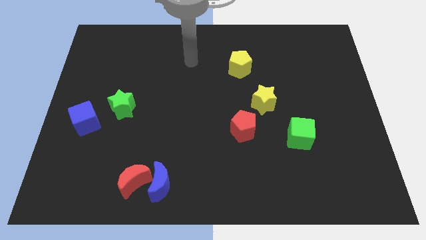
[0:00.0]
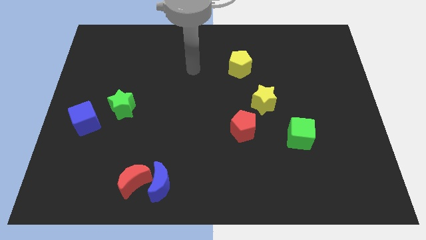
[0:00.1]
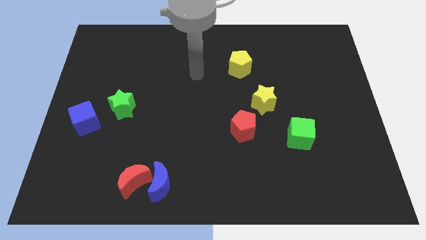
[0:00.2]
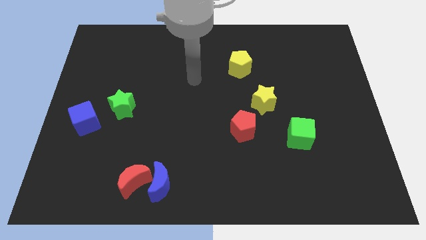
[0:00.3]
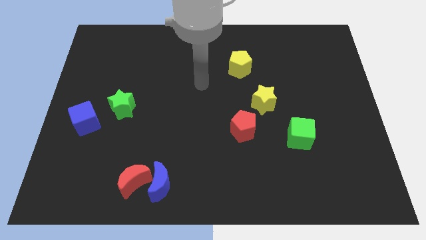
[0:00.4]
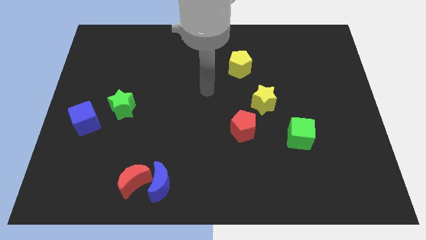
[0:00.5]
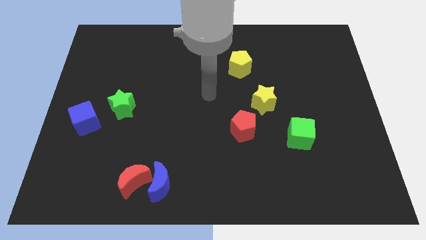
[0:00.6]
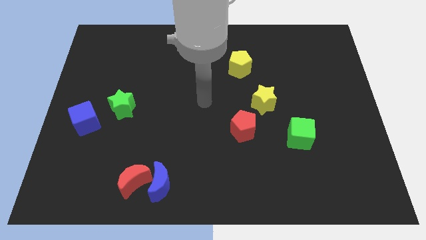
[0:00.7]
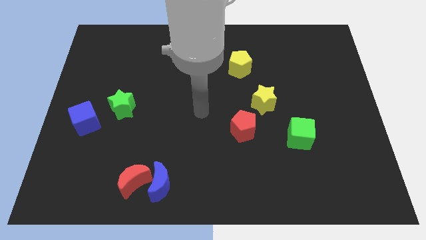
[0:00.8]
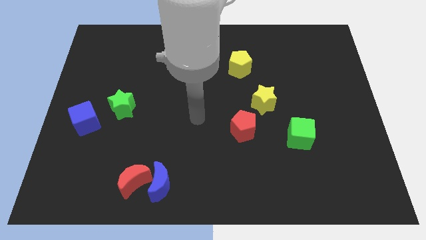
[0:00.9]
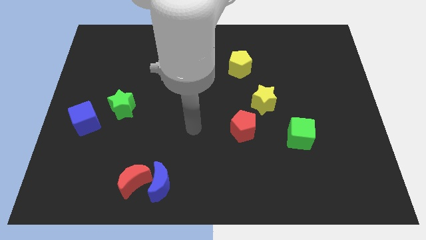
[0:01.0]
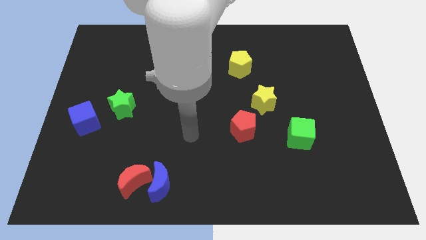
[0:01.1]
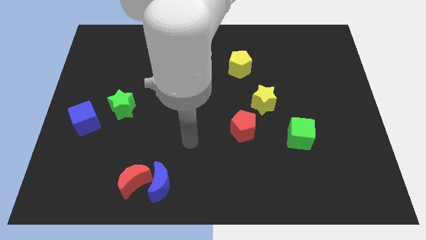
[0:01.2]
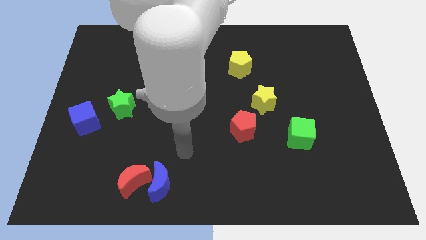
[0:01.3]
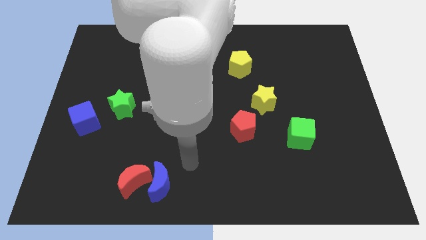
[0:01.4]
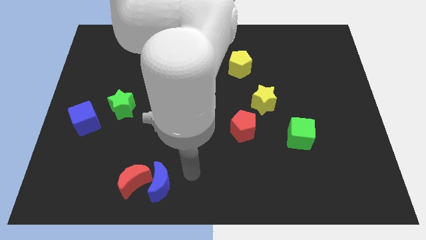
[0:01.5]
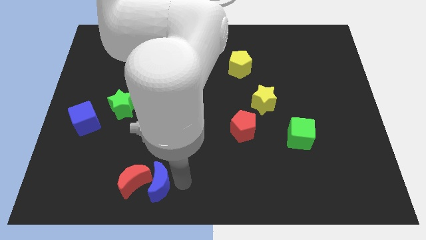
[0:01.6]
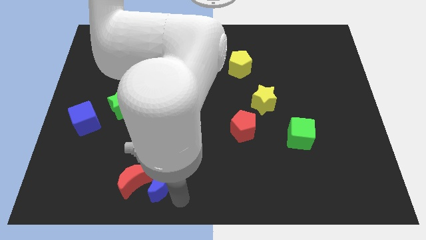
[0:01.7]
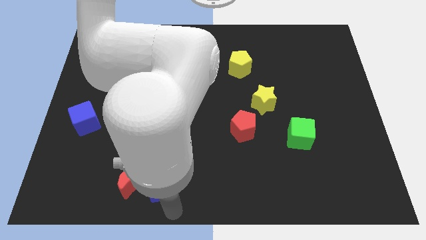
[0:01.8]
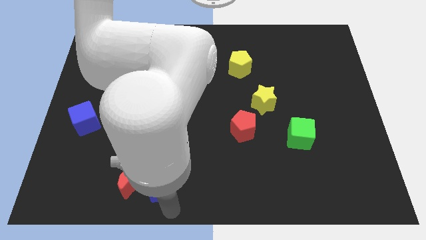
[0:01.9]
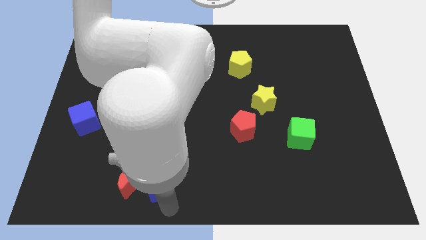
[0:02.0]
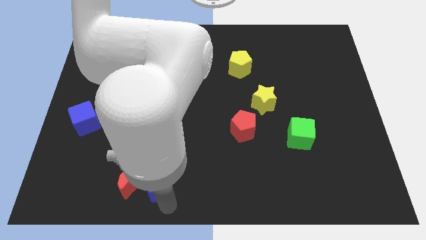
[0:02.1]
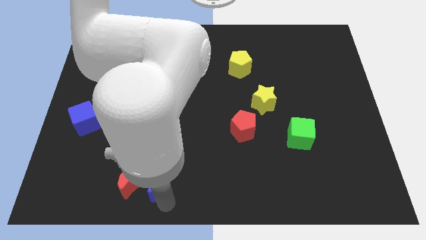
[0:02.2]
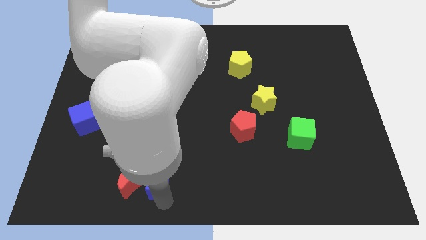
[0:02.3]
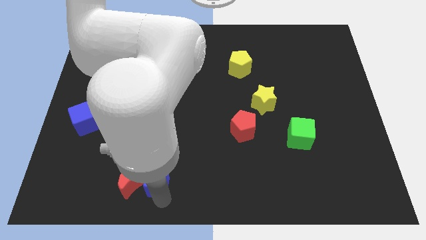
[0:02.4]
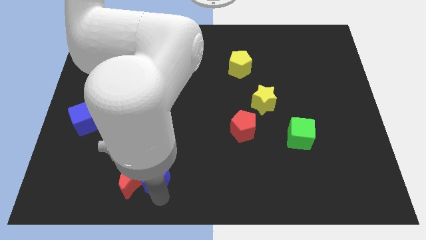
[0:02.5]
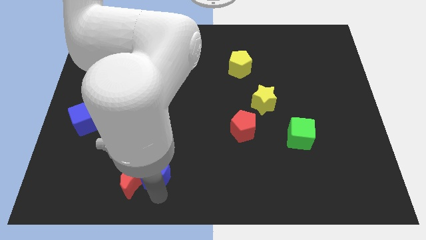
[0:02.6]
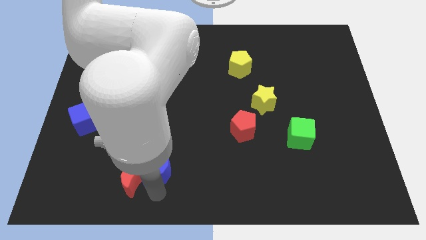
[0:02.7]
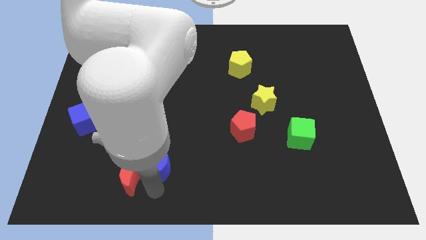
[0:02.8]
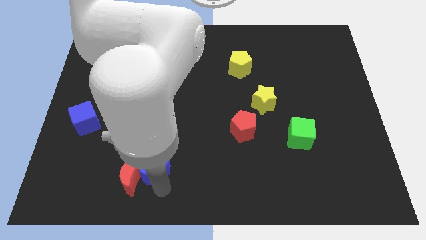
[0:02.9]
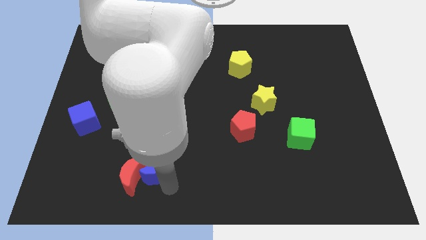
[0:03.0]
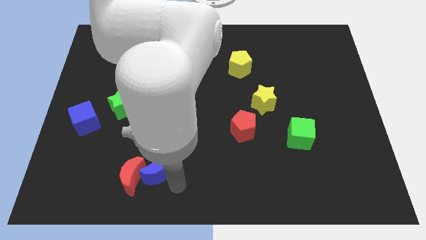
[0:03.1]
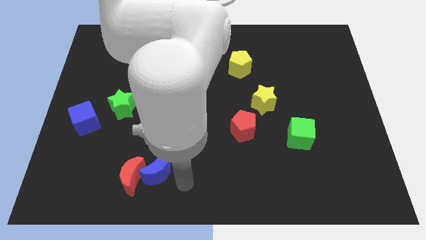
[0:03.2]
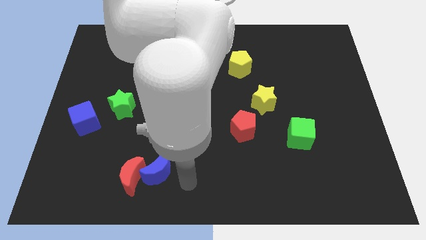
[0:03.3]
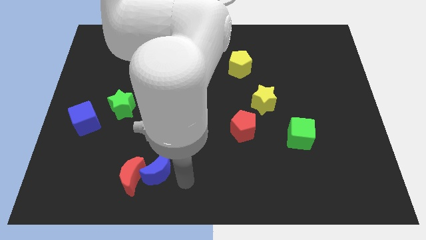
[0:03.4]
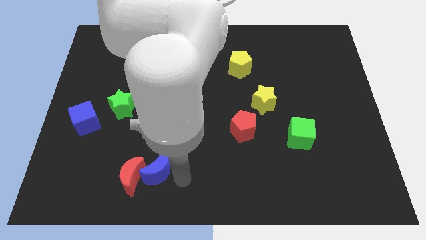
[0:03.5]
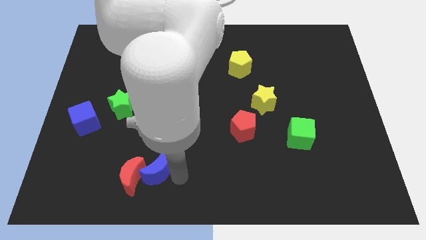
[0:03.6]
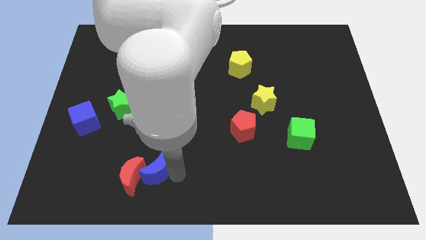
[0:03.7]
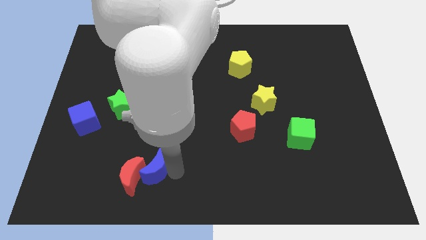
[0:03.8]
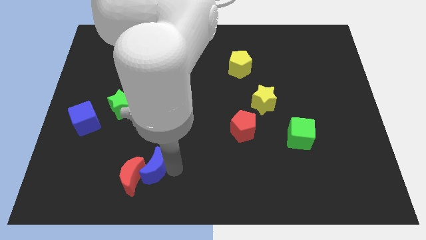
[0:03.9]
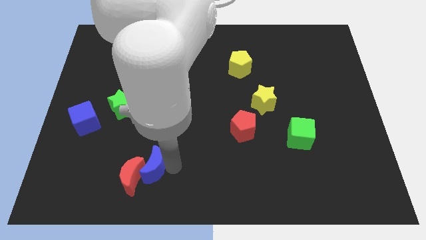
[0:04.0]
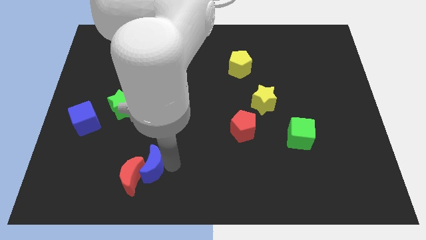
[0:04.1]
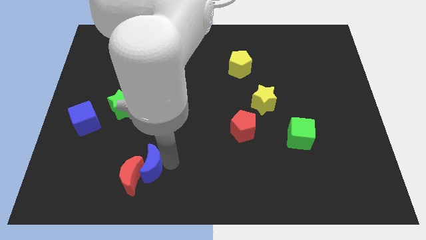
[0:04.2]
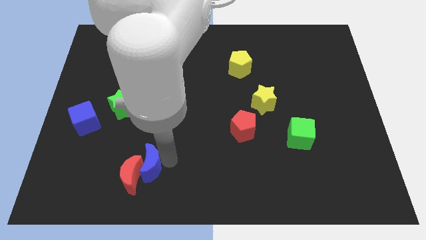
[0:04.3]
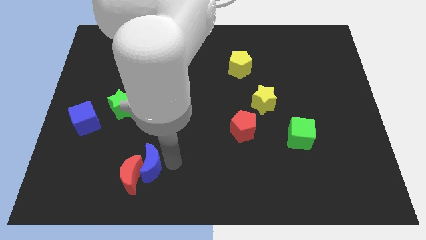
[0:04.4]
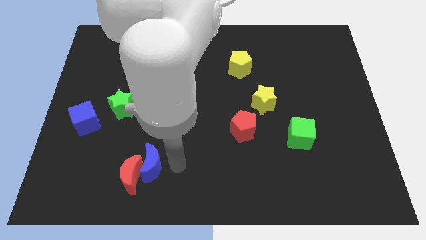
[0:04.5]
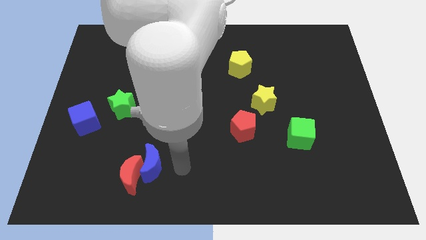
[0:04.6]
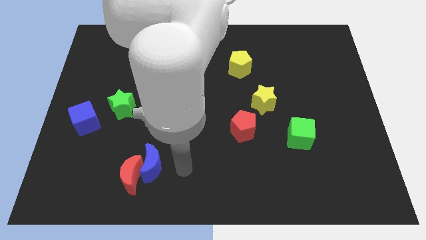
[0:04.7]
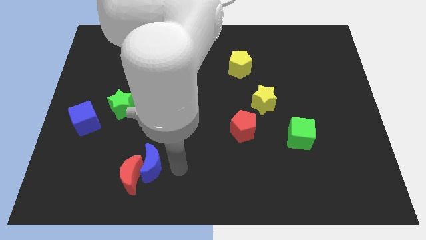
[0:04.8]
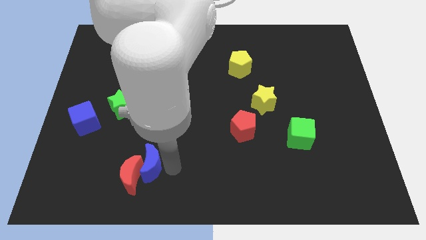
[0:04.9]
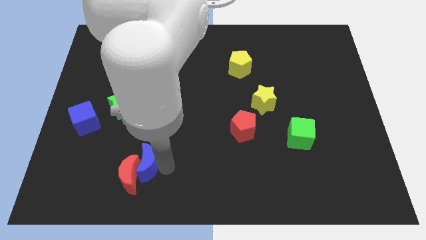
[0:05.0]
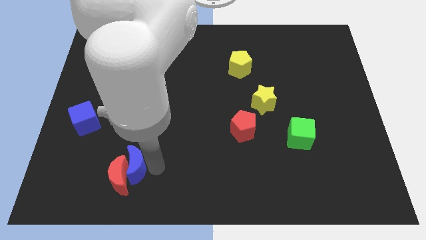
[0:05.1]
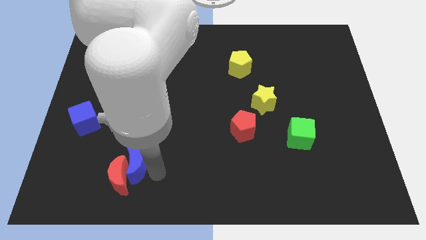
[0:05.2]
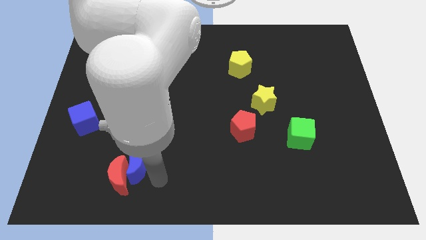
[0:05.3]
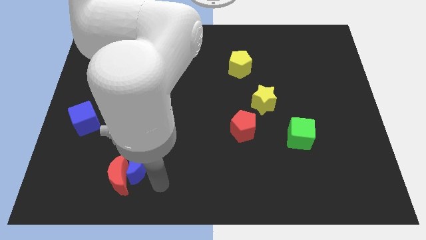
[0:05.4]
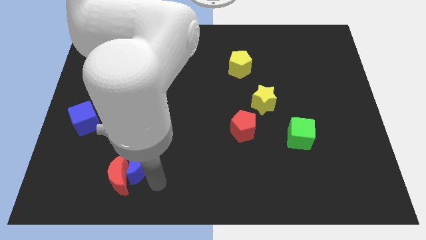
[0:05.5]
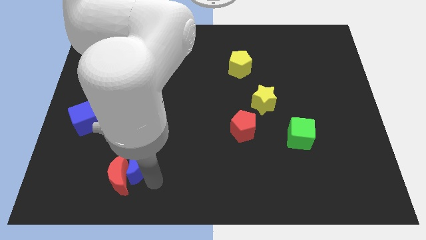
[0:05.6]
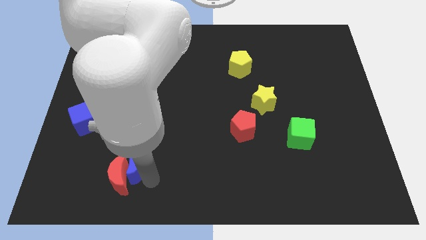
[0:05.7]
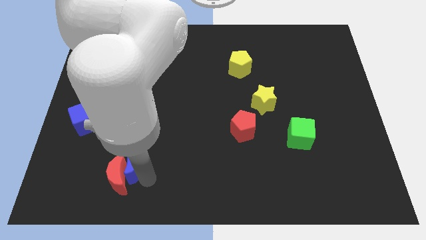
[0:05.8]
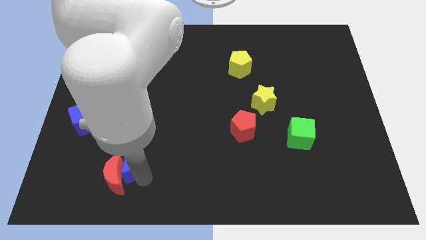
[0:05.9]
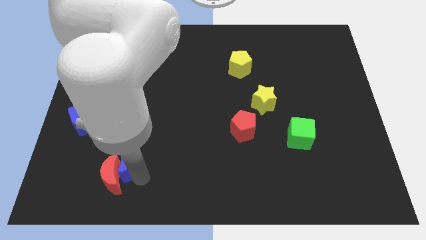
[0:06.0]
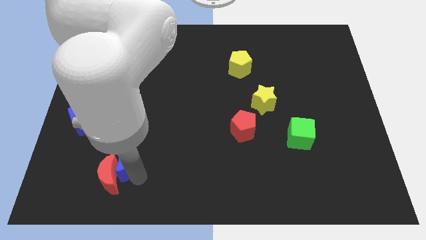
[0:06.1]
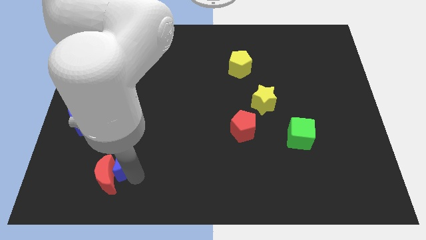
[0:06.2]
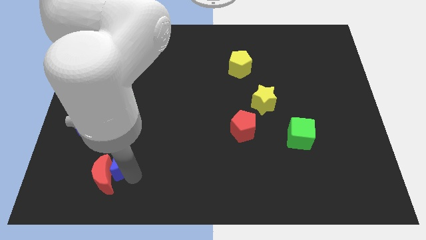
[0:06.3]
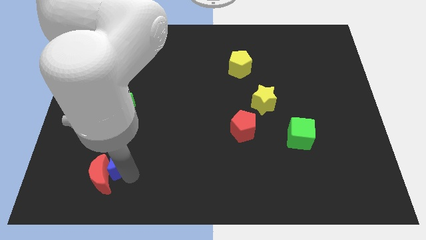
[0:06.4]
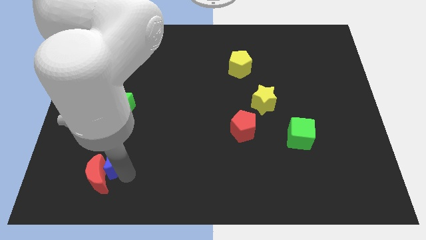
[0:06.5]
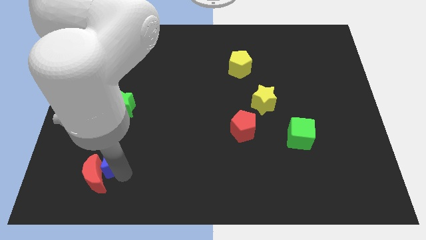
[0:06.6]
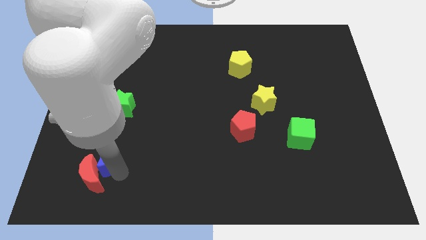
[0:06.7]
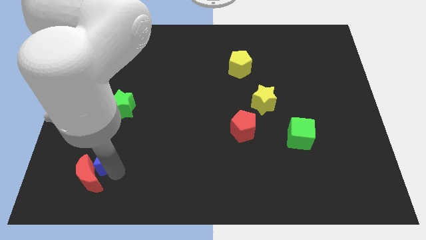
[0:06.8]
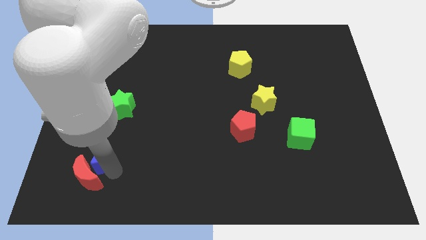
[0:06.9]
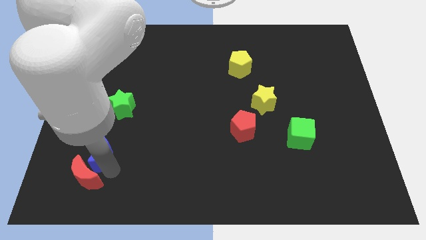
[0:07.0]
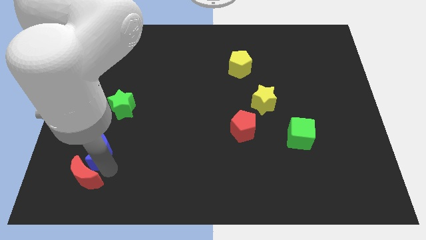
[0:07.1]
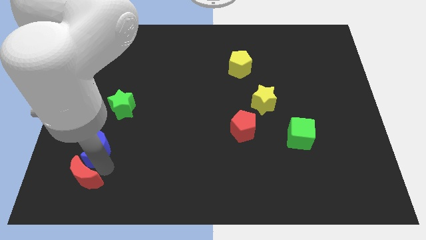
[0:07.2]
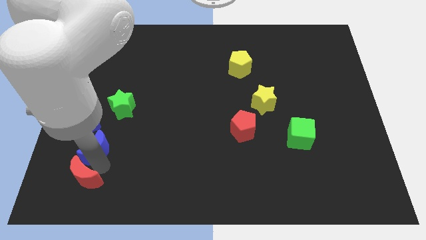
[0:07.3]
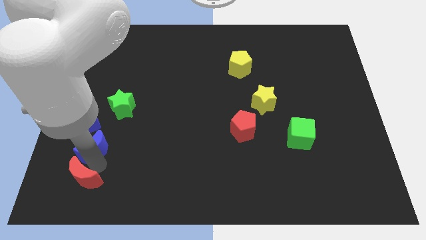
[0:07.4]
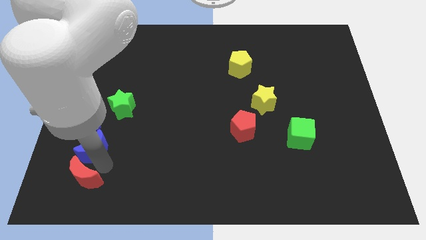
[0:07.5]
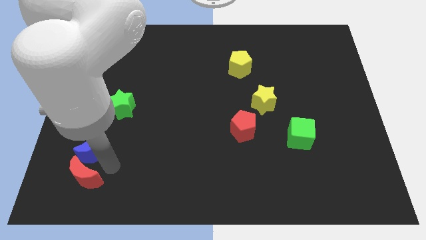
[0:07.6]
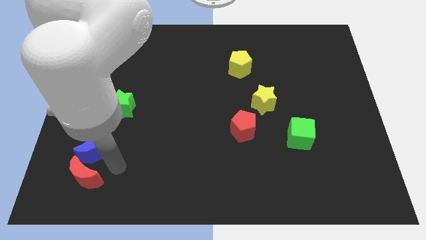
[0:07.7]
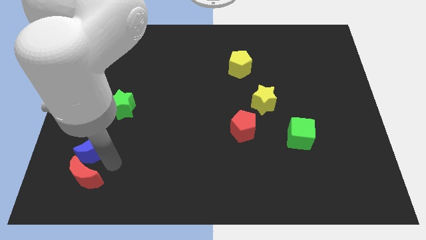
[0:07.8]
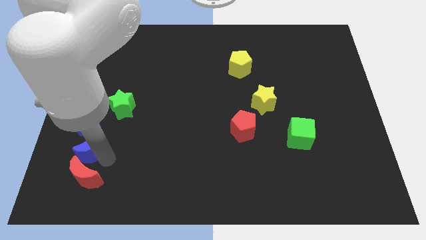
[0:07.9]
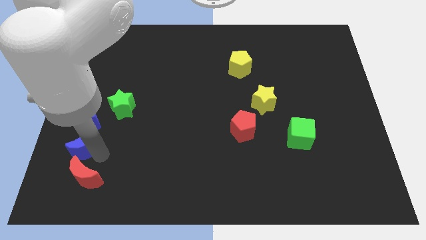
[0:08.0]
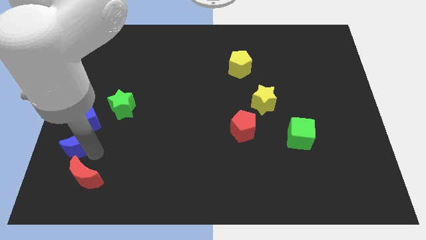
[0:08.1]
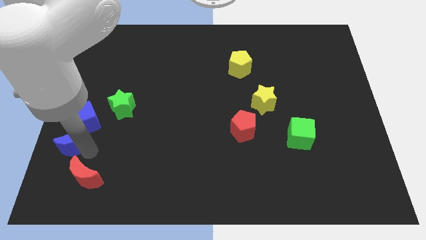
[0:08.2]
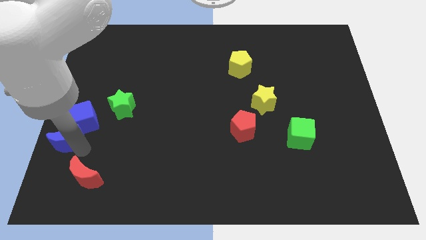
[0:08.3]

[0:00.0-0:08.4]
put the blue moon to the left side
